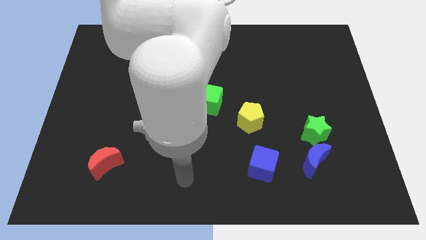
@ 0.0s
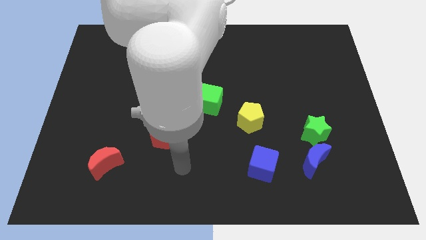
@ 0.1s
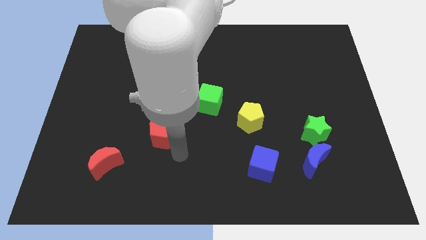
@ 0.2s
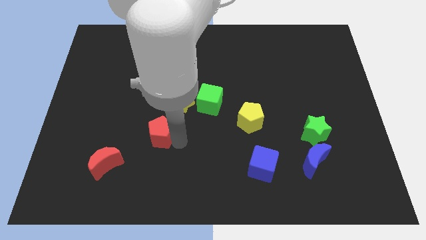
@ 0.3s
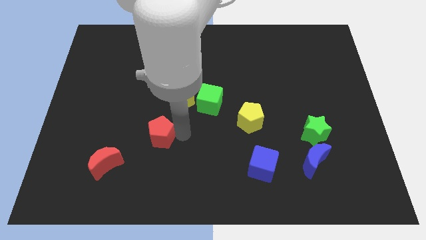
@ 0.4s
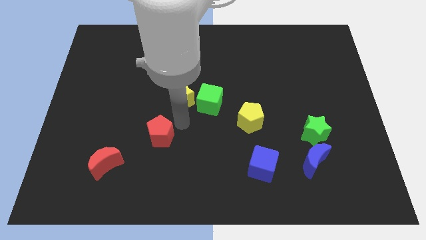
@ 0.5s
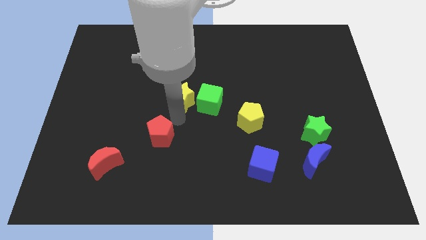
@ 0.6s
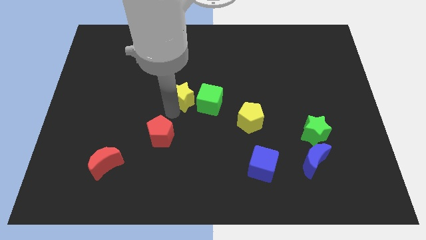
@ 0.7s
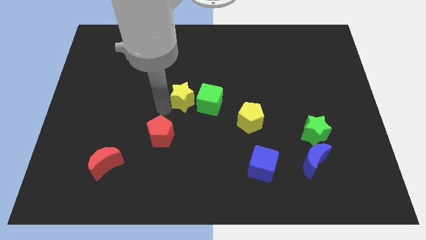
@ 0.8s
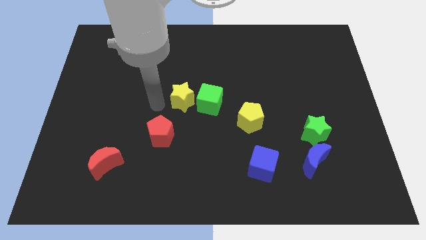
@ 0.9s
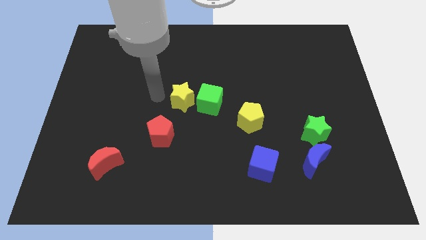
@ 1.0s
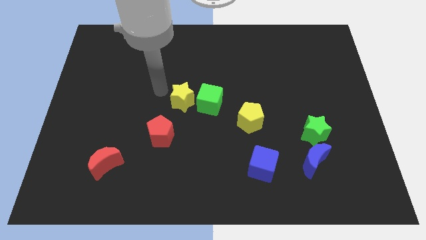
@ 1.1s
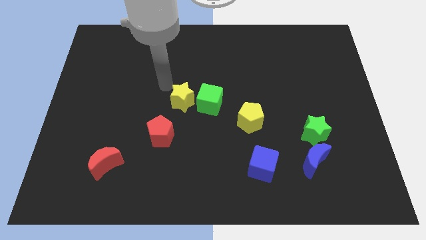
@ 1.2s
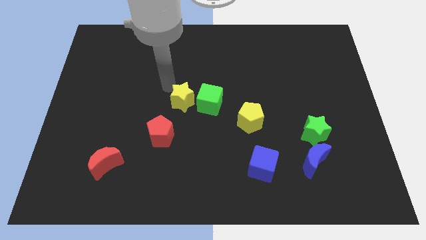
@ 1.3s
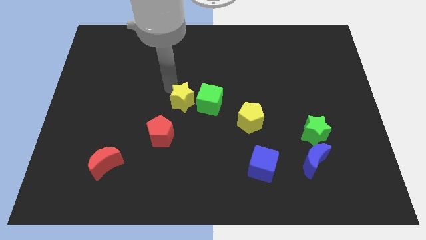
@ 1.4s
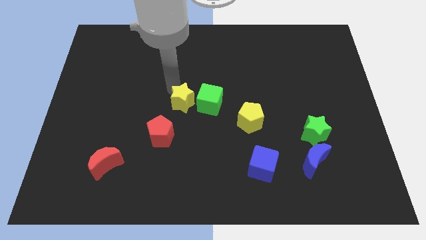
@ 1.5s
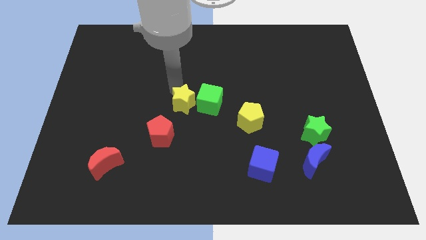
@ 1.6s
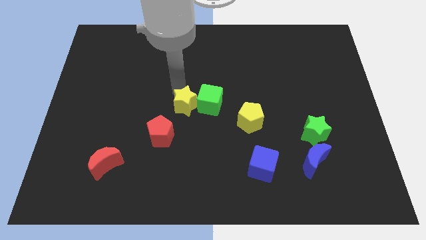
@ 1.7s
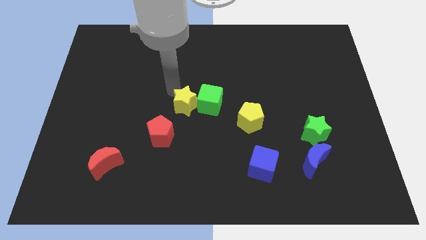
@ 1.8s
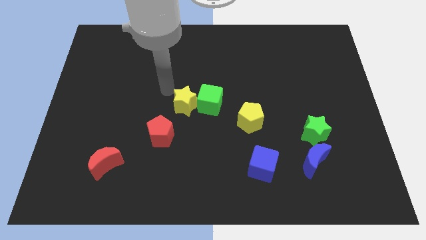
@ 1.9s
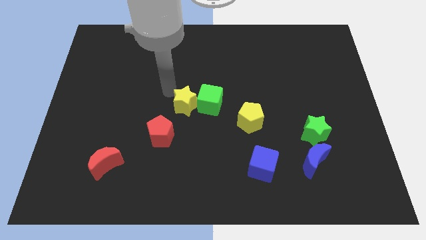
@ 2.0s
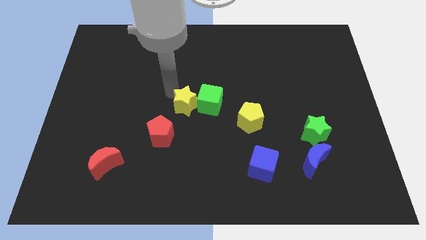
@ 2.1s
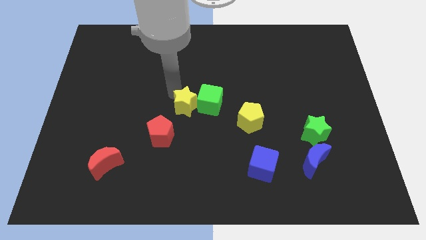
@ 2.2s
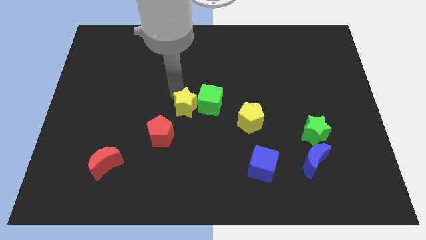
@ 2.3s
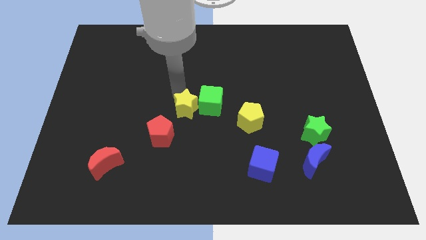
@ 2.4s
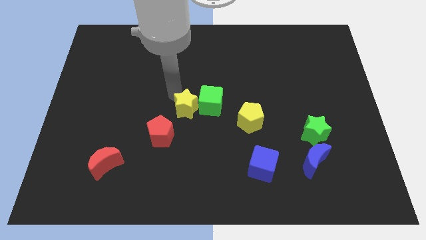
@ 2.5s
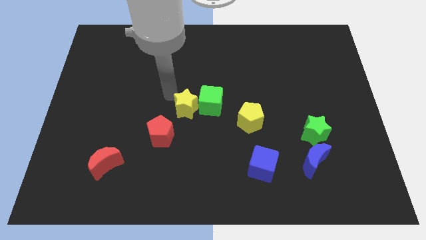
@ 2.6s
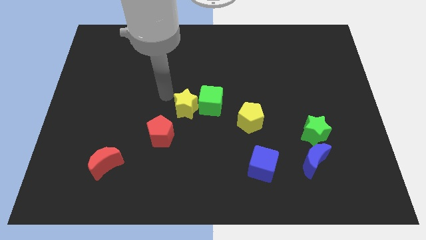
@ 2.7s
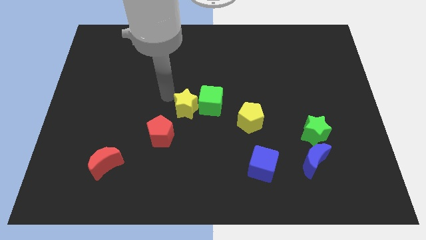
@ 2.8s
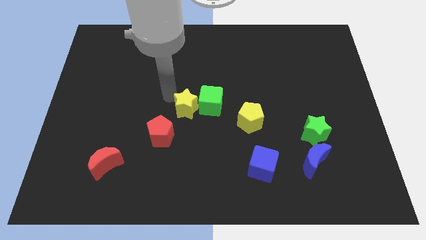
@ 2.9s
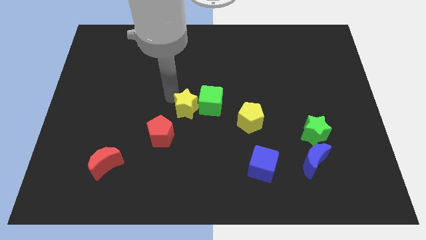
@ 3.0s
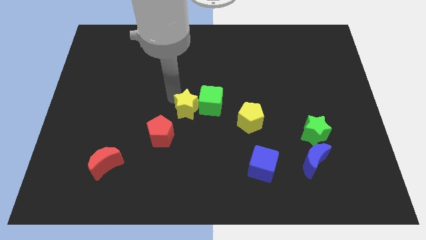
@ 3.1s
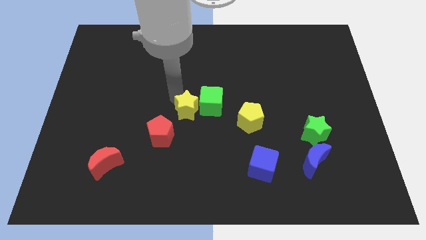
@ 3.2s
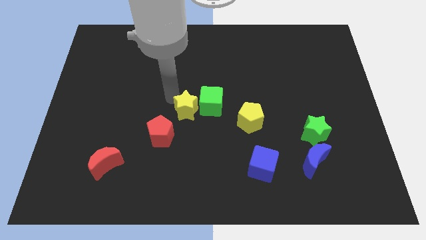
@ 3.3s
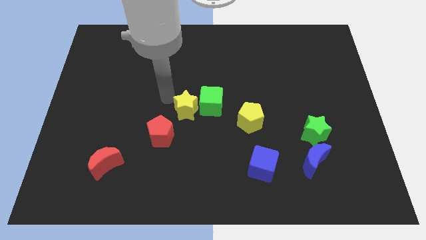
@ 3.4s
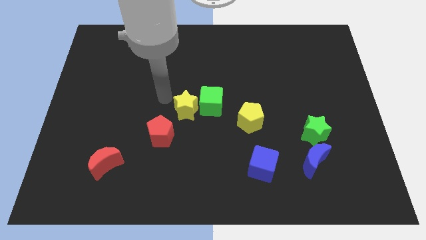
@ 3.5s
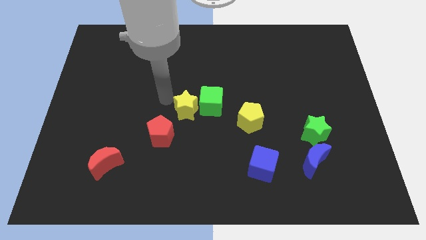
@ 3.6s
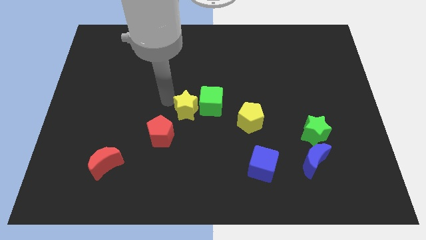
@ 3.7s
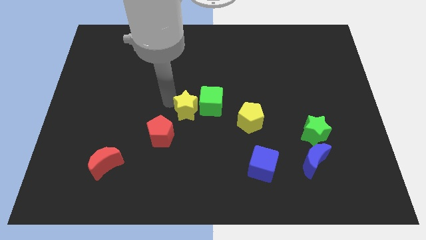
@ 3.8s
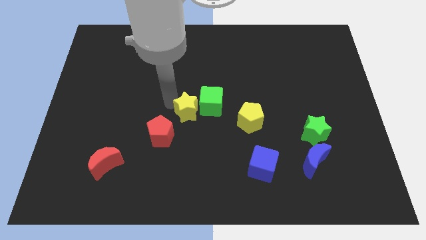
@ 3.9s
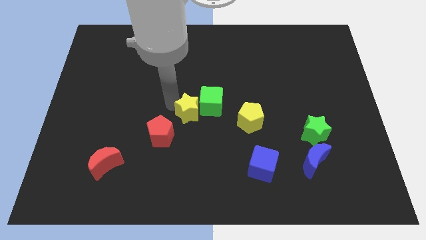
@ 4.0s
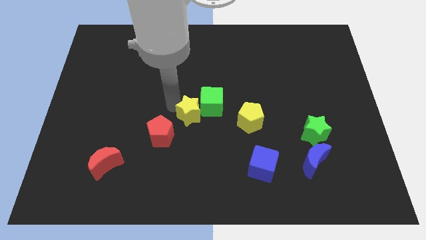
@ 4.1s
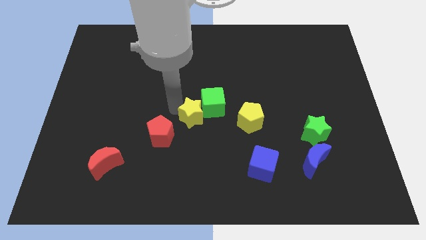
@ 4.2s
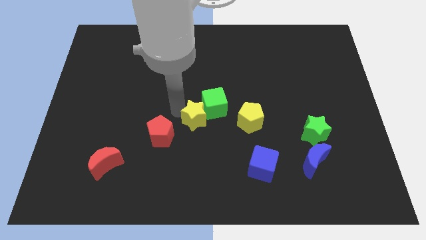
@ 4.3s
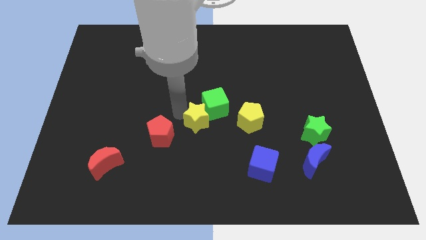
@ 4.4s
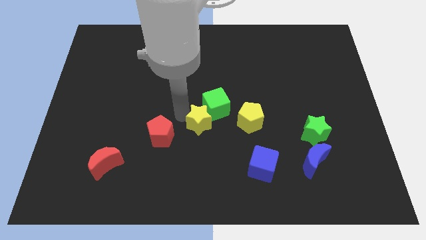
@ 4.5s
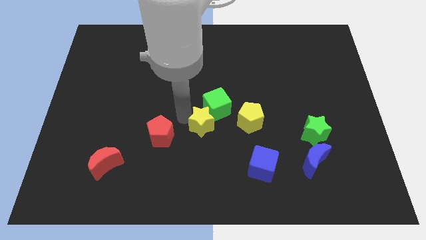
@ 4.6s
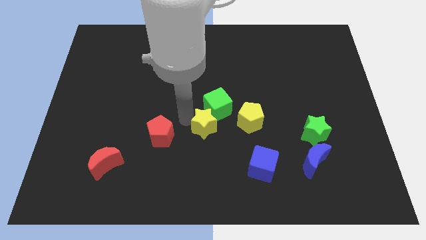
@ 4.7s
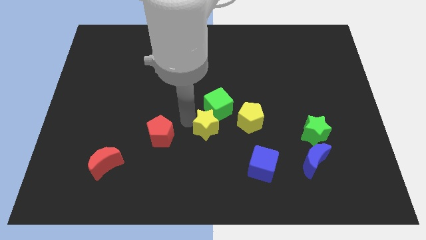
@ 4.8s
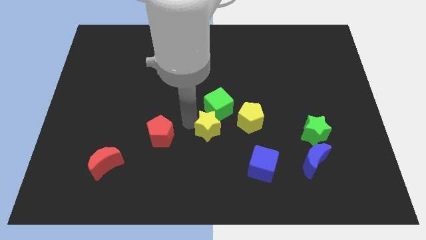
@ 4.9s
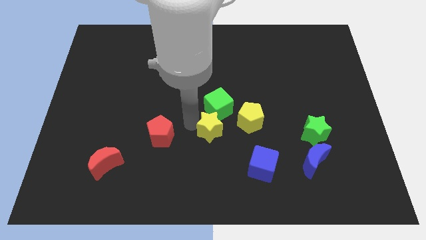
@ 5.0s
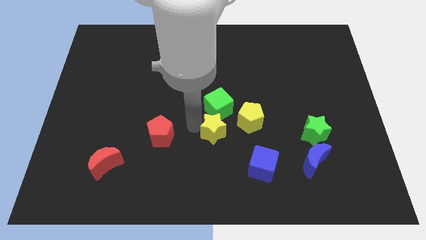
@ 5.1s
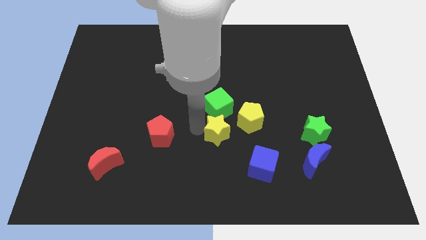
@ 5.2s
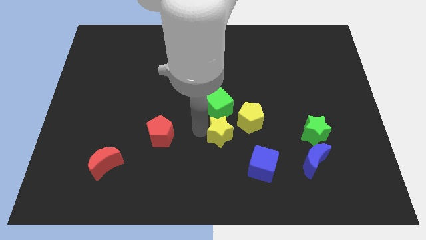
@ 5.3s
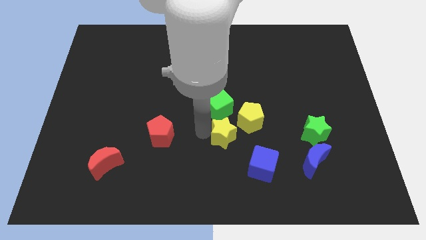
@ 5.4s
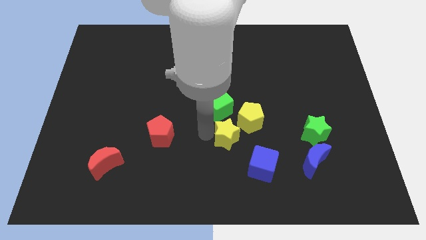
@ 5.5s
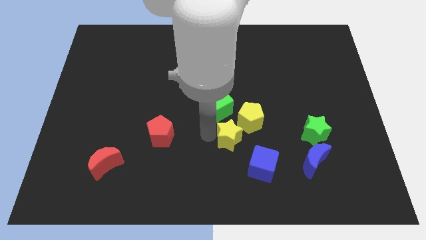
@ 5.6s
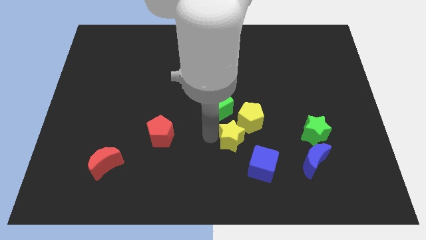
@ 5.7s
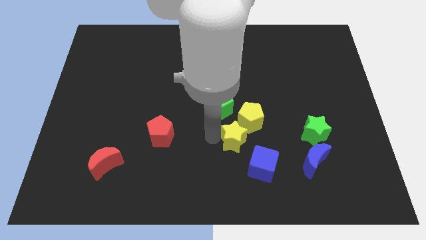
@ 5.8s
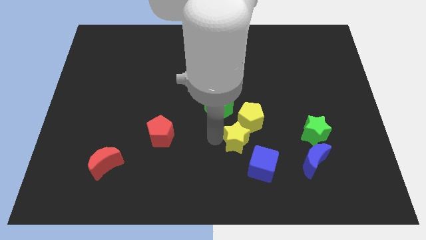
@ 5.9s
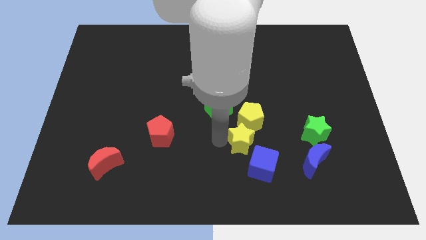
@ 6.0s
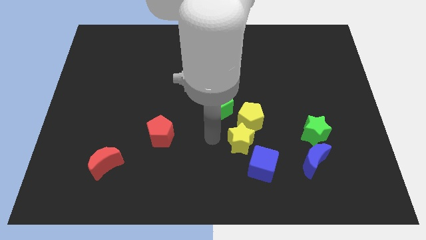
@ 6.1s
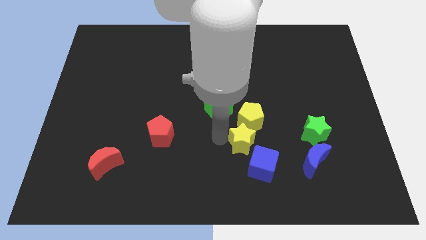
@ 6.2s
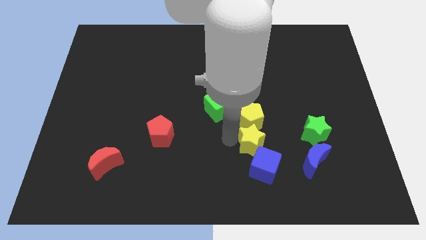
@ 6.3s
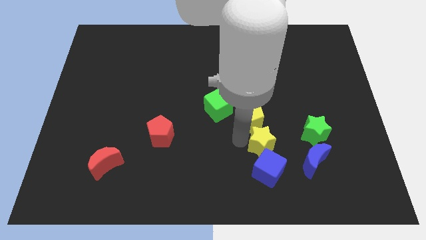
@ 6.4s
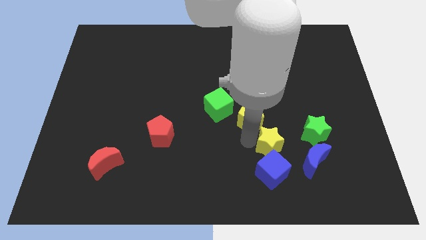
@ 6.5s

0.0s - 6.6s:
move the yellow star diagonally up and to the right of the blue cube

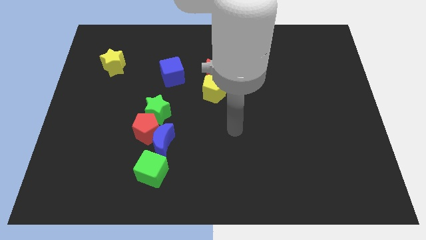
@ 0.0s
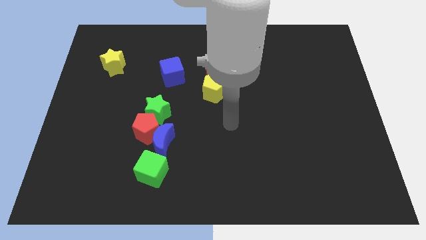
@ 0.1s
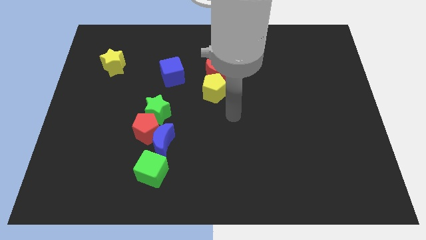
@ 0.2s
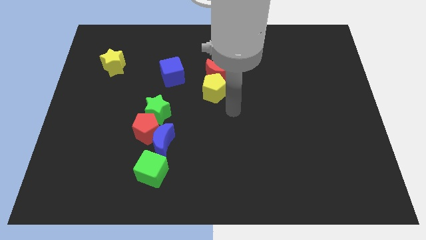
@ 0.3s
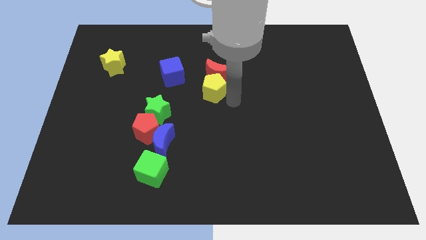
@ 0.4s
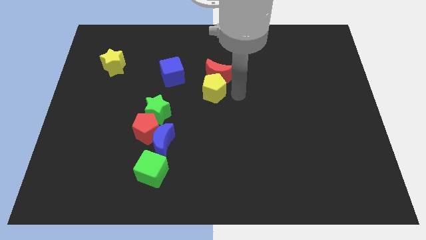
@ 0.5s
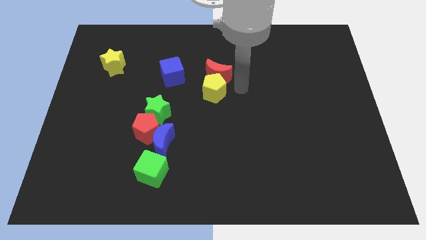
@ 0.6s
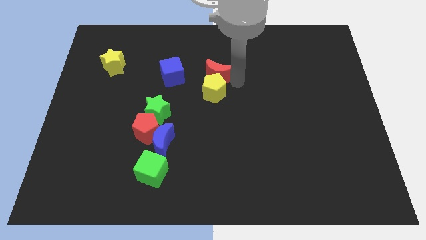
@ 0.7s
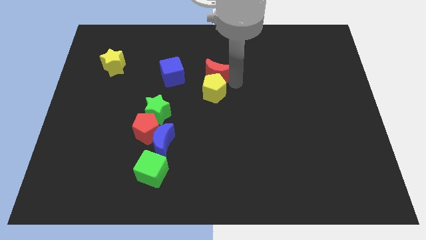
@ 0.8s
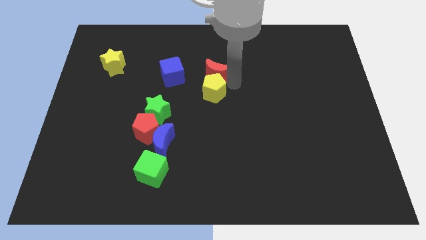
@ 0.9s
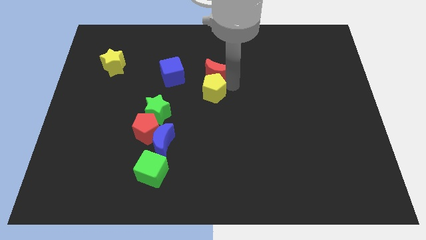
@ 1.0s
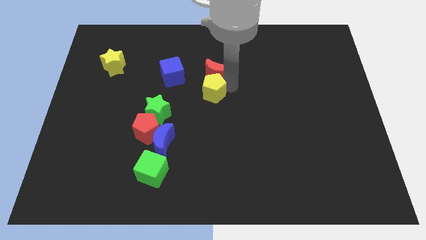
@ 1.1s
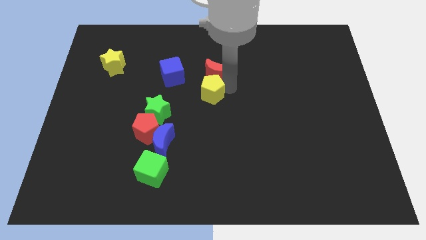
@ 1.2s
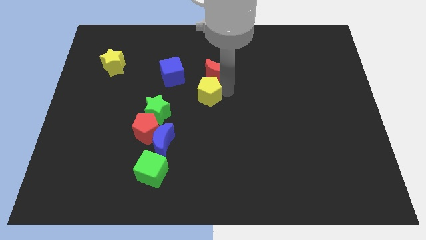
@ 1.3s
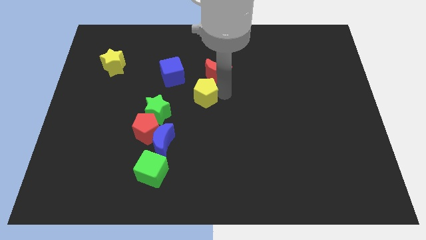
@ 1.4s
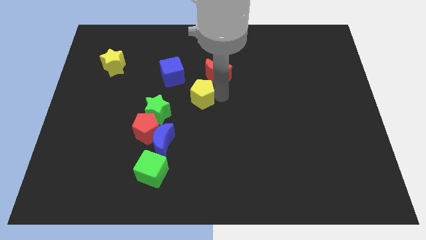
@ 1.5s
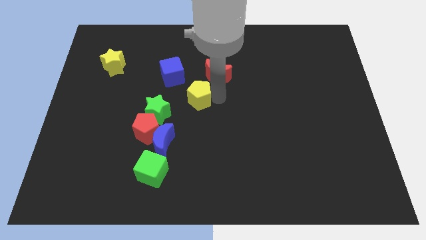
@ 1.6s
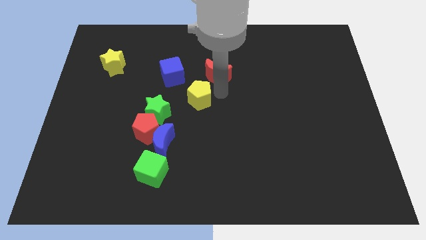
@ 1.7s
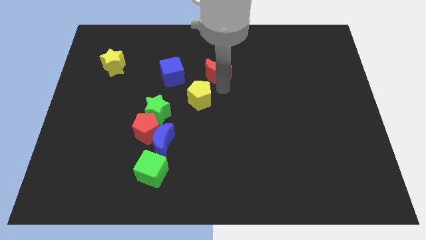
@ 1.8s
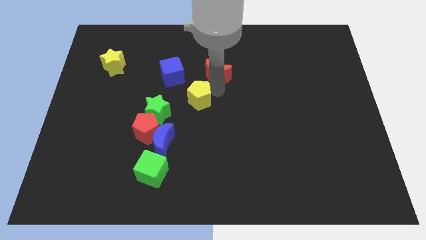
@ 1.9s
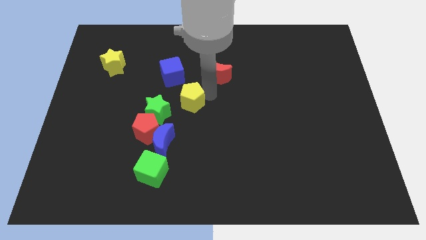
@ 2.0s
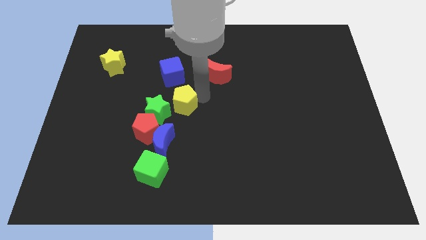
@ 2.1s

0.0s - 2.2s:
move the yellow pentagon to the top right of the red pentagon
